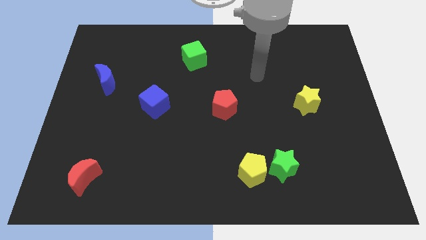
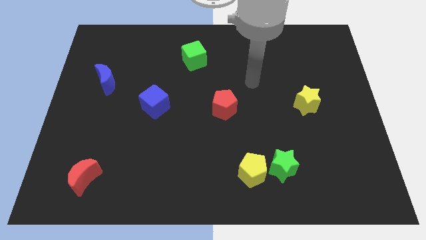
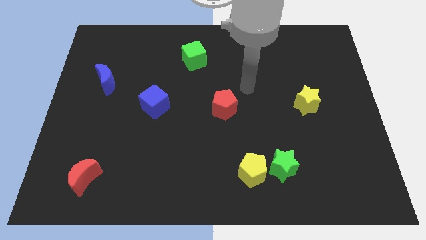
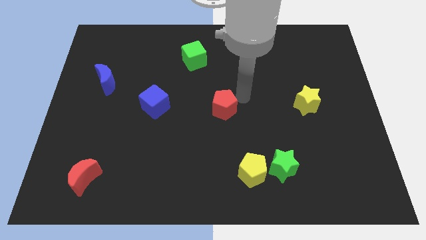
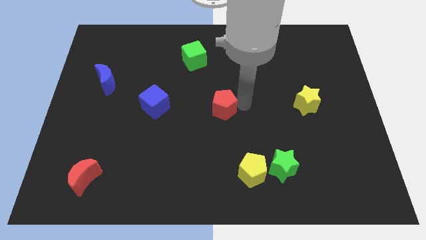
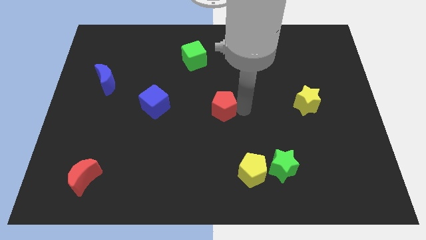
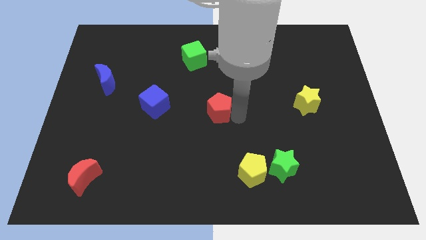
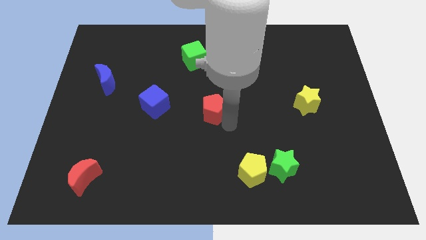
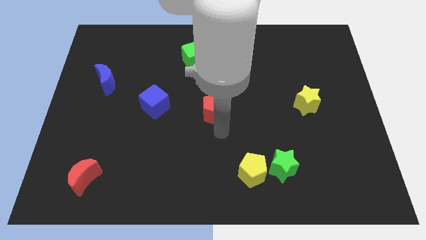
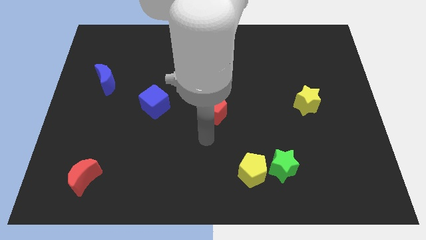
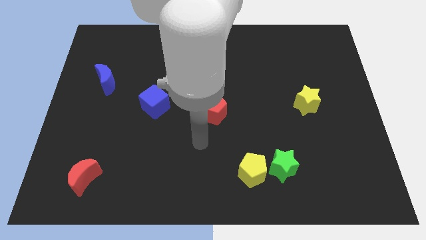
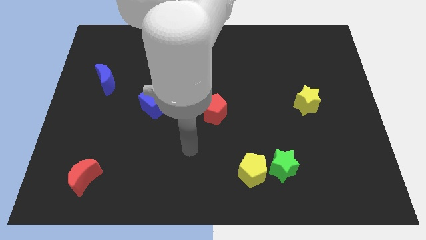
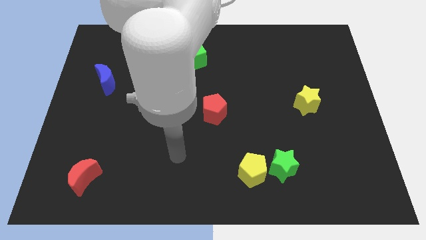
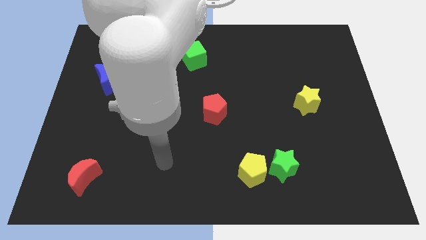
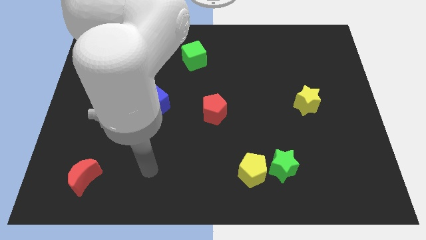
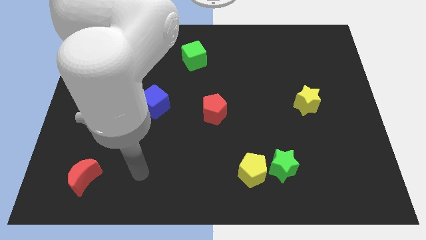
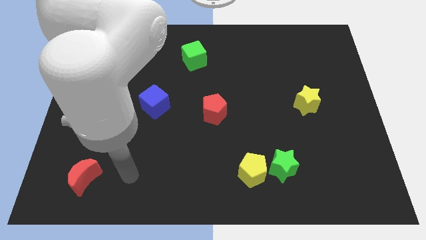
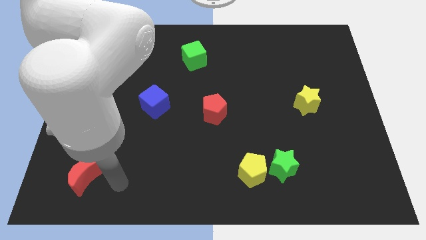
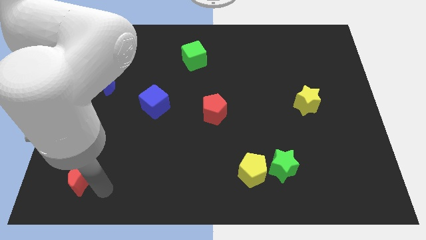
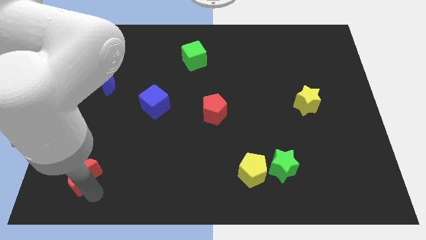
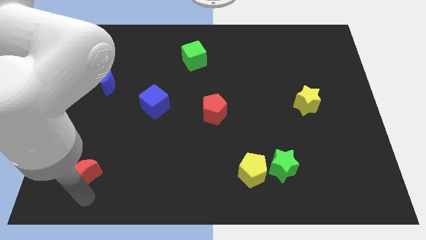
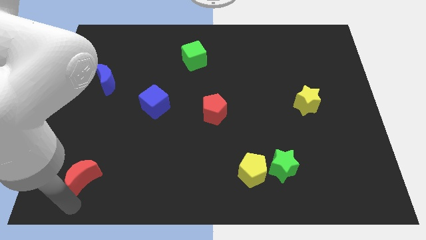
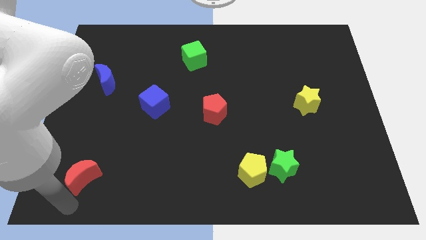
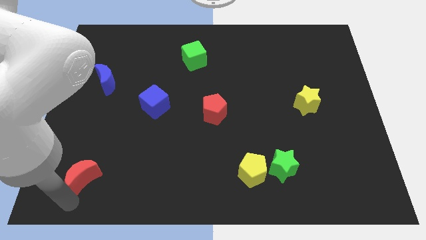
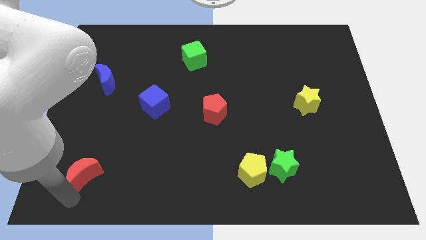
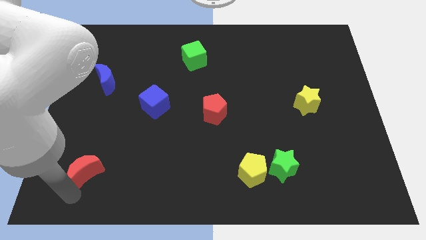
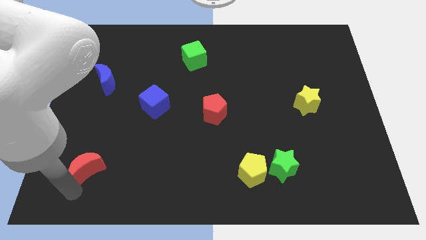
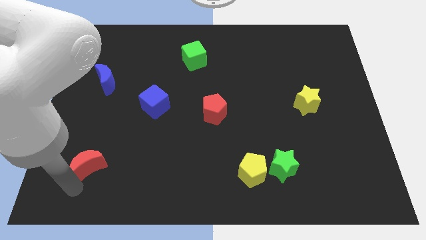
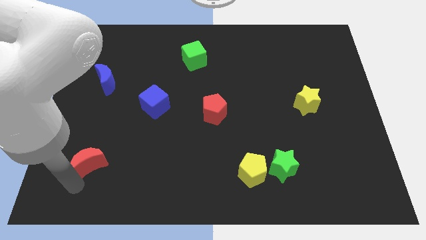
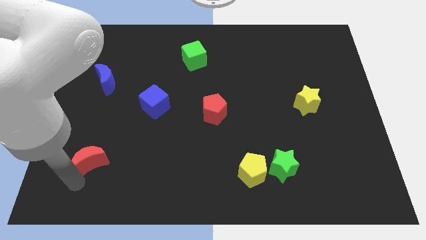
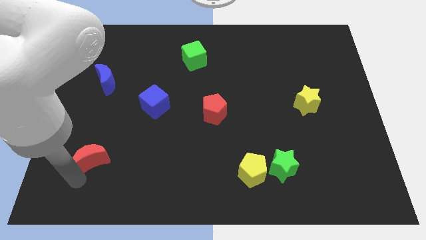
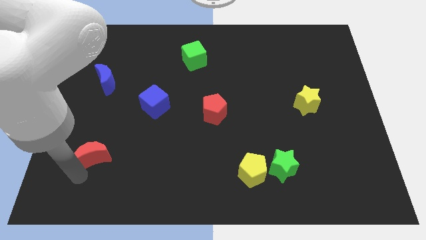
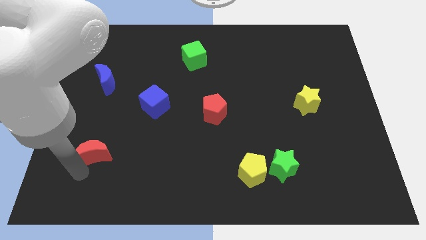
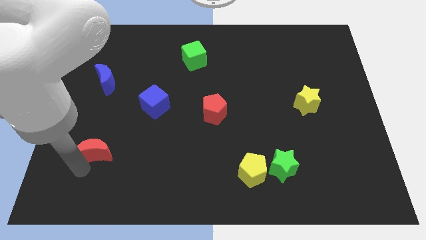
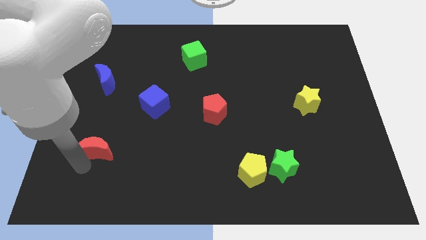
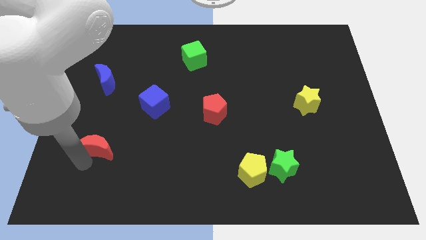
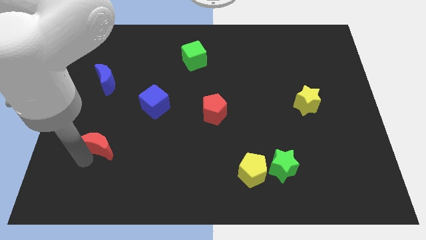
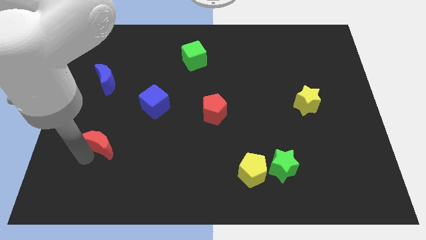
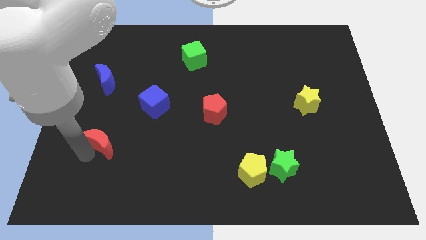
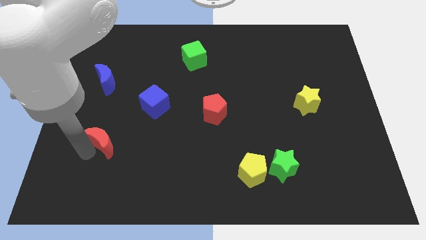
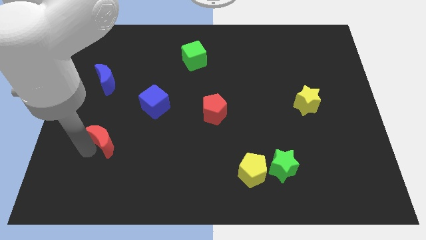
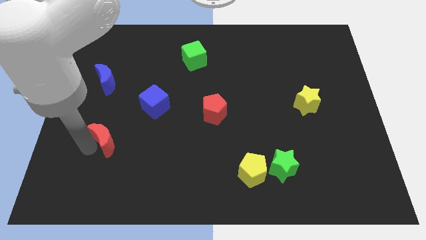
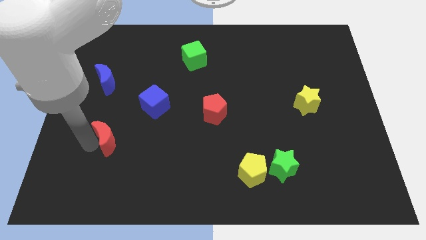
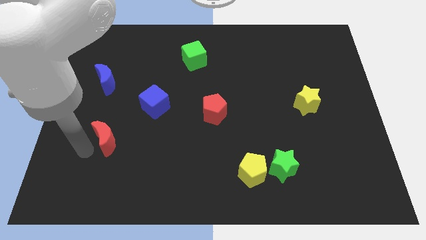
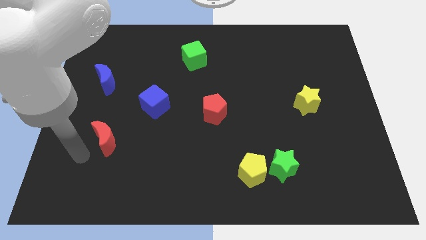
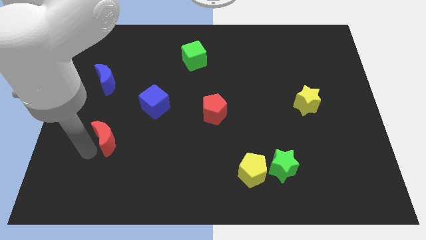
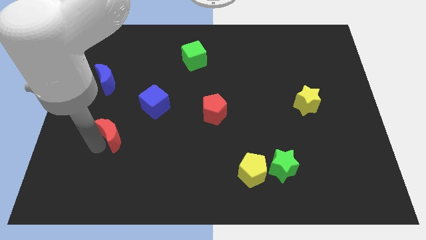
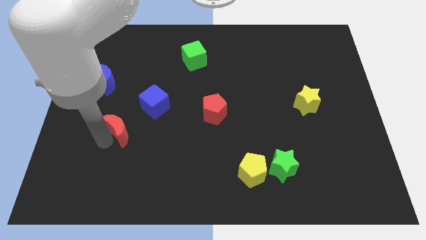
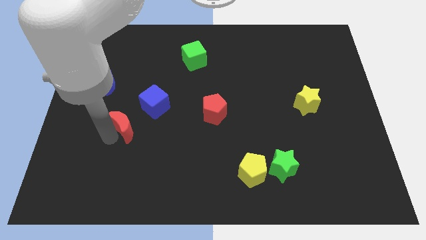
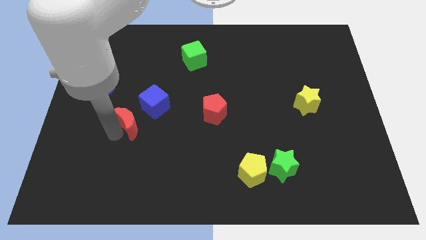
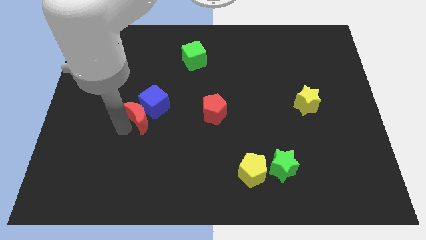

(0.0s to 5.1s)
put the red moon next to the blue cube

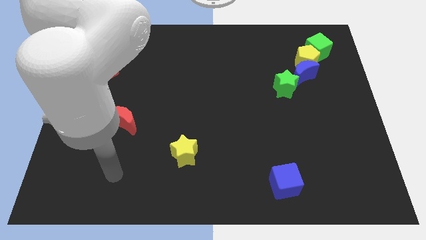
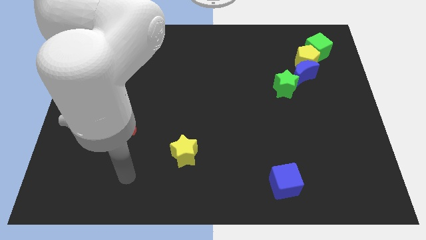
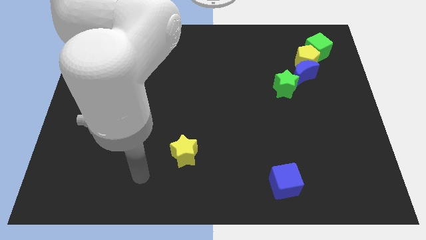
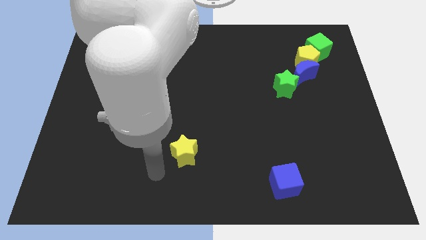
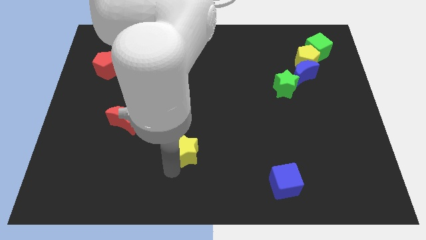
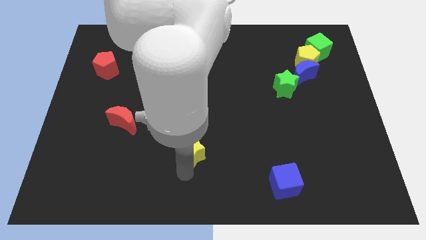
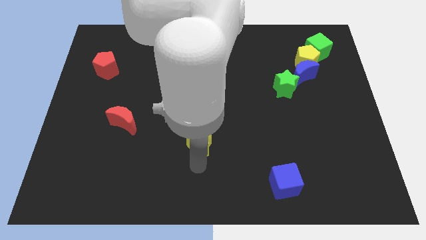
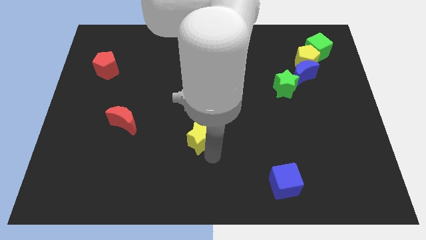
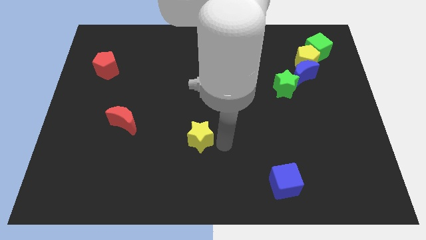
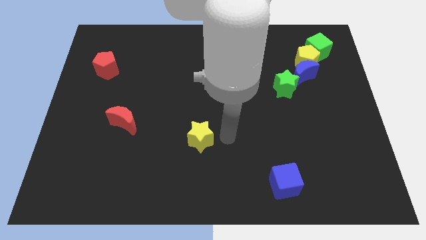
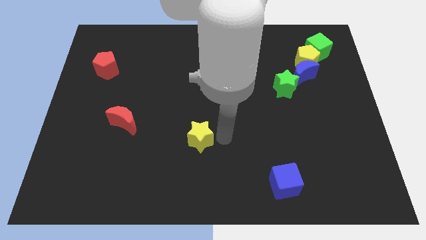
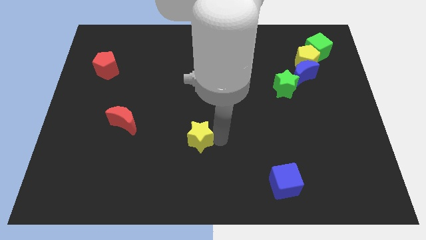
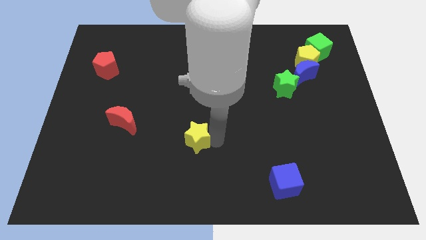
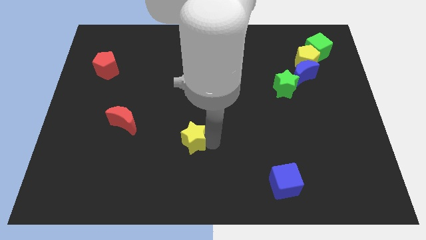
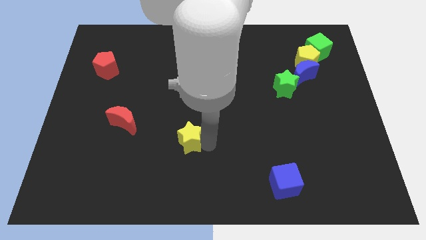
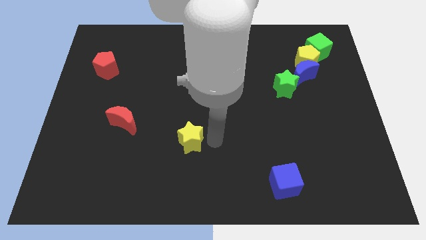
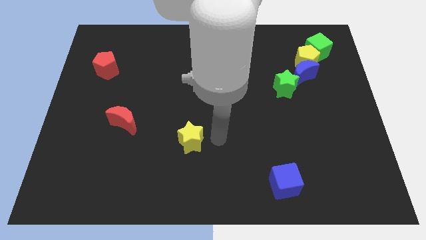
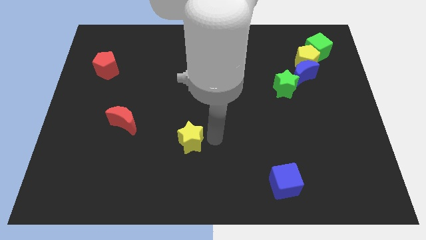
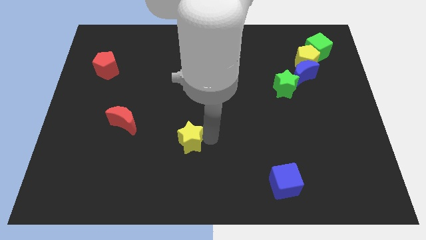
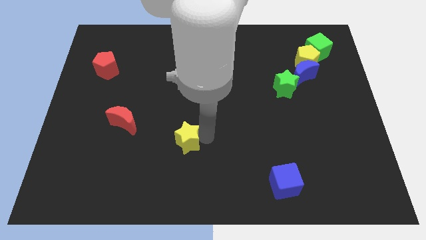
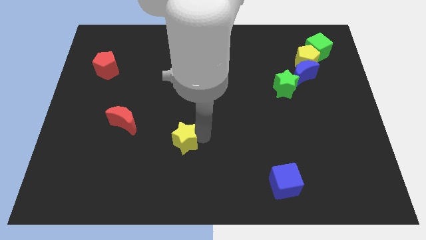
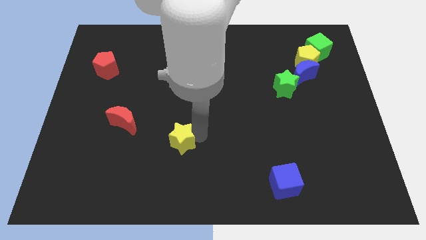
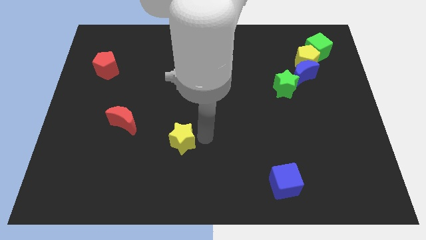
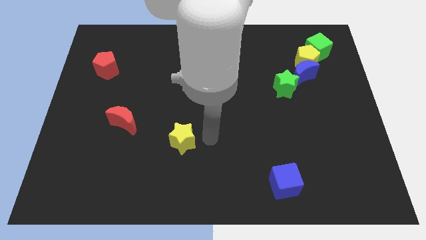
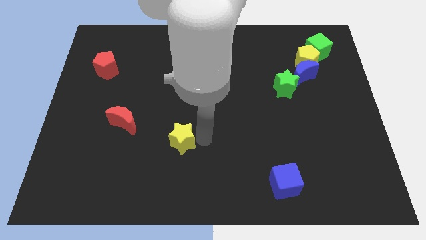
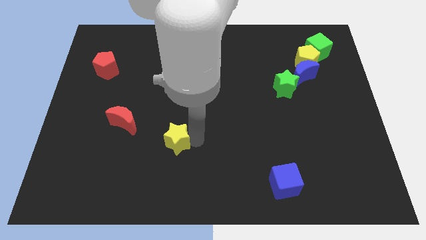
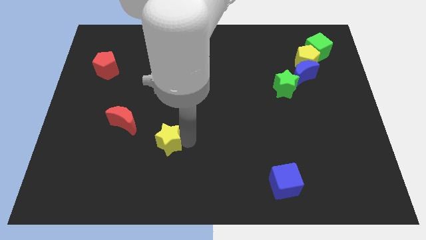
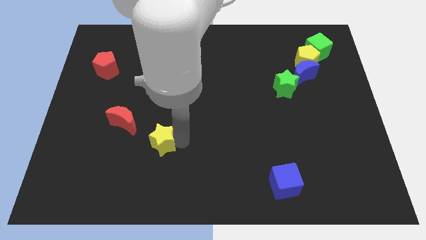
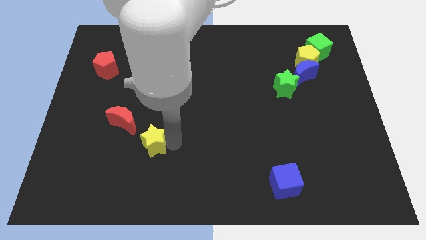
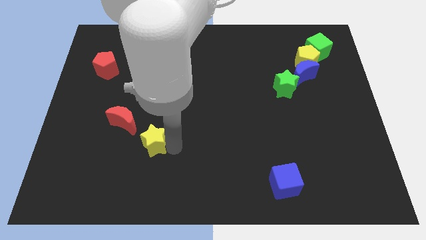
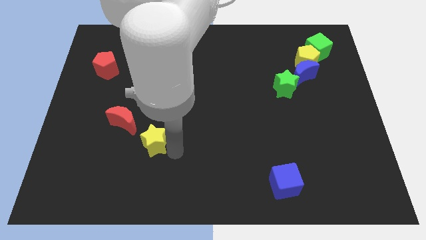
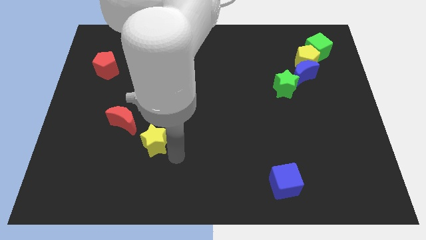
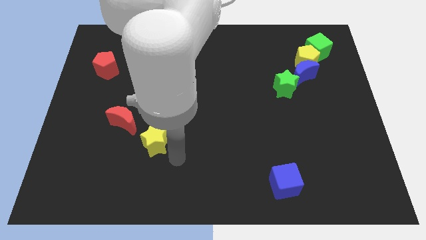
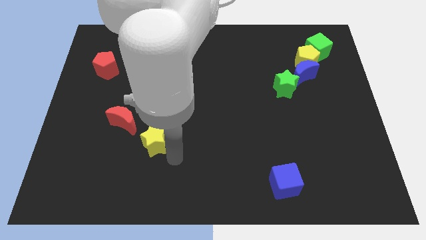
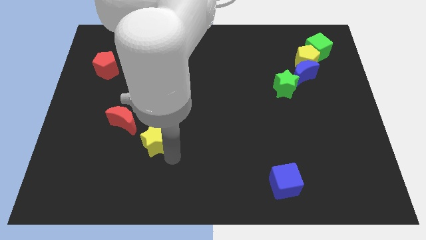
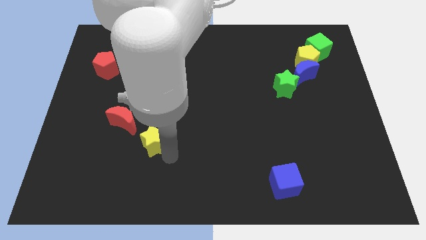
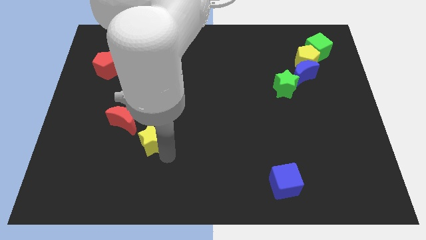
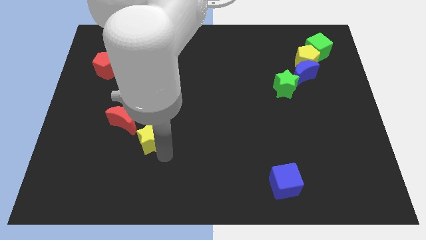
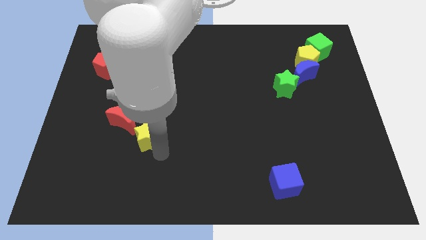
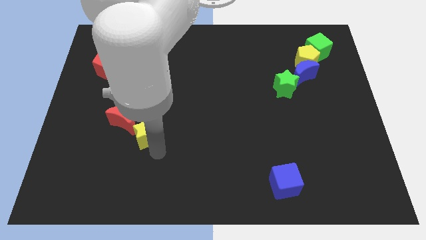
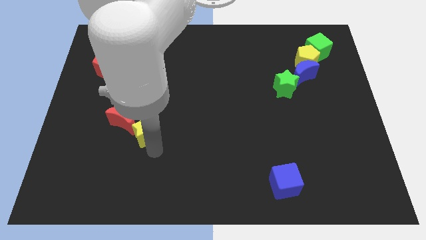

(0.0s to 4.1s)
slide the yellow star close to the red moon
